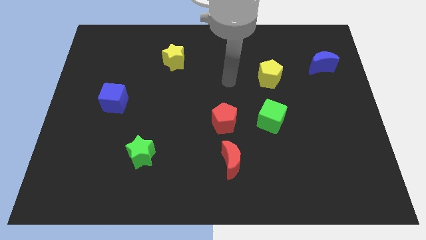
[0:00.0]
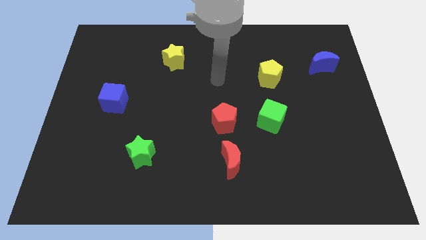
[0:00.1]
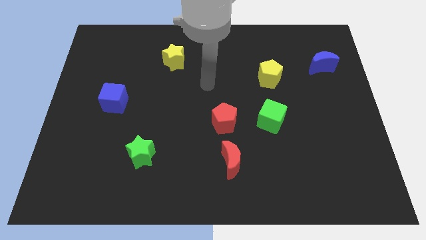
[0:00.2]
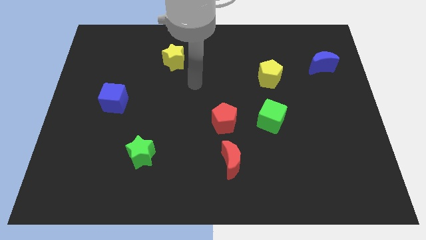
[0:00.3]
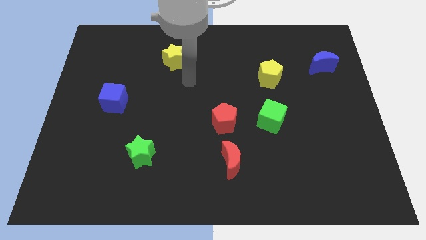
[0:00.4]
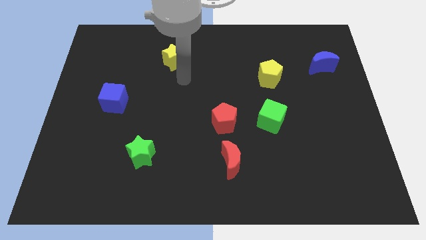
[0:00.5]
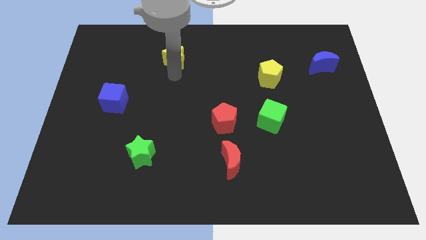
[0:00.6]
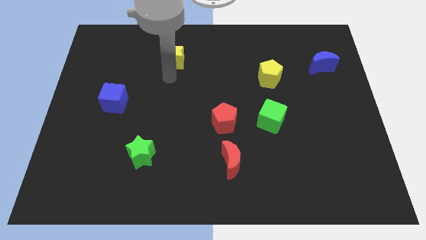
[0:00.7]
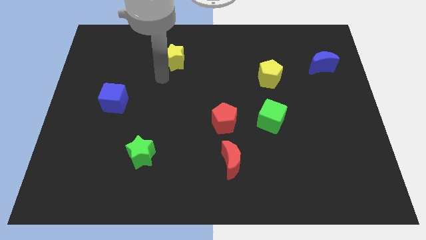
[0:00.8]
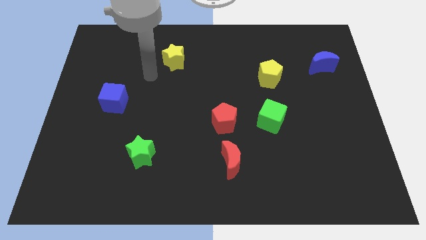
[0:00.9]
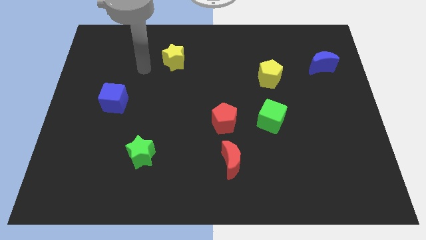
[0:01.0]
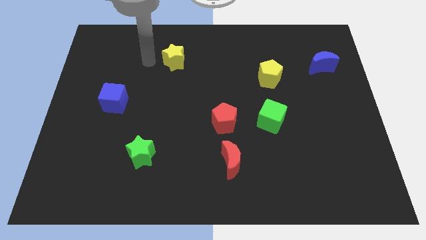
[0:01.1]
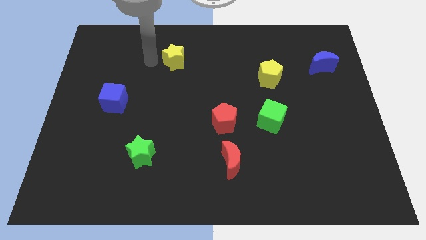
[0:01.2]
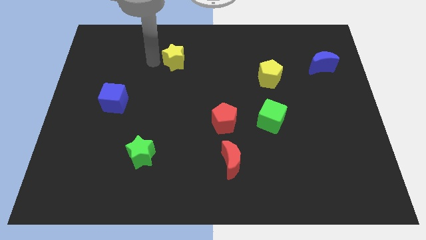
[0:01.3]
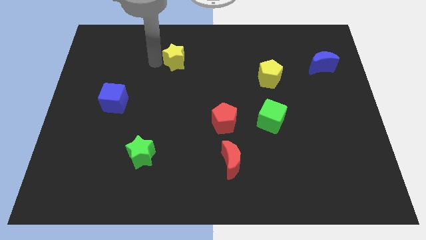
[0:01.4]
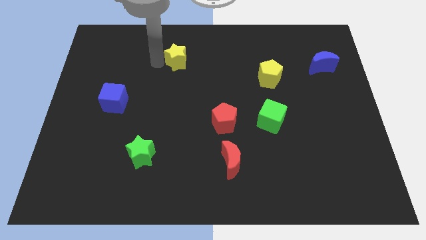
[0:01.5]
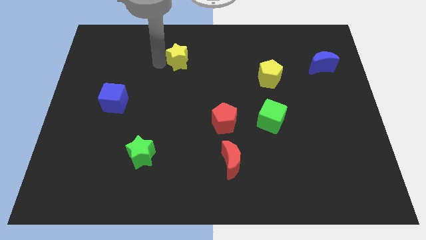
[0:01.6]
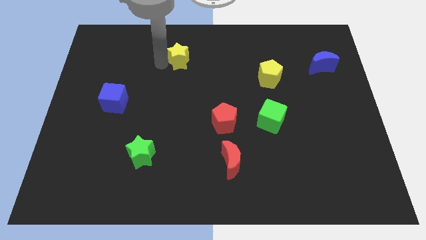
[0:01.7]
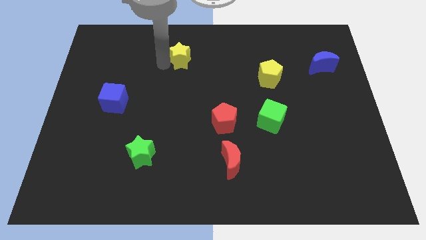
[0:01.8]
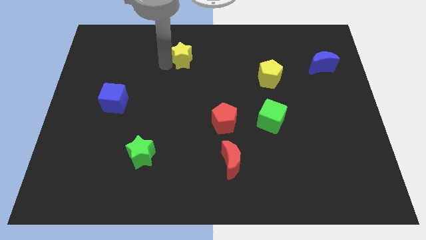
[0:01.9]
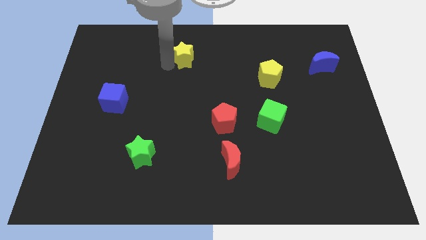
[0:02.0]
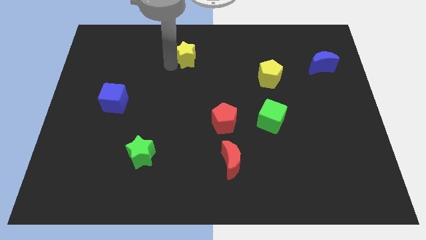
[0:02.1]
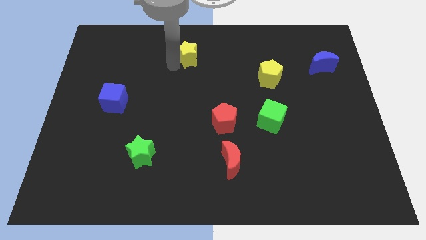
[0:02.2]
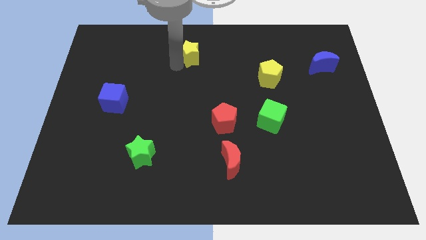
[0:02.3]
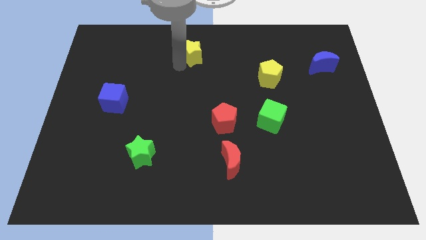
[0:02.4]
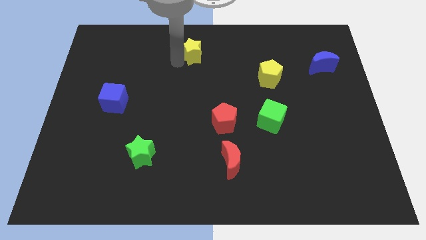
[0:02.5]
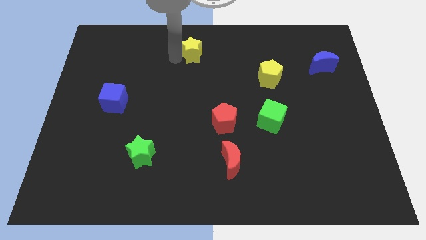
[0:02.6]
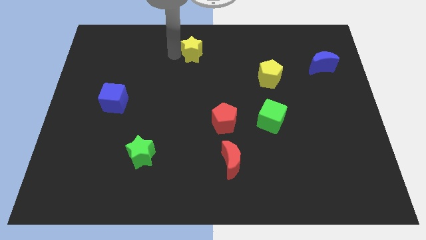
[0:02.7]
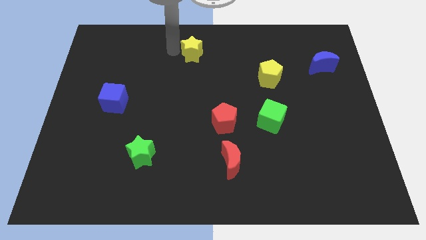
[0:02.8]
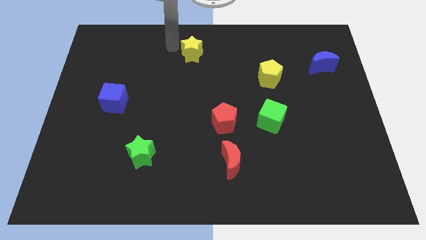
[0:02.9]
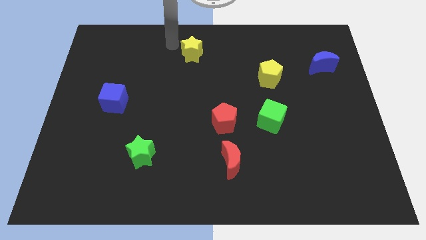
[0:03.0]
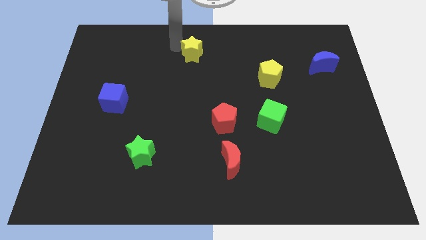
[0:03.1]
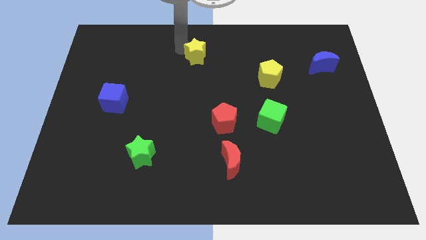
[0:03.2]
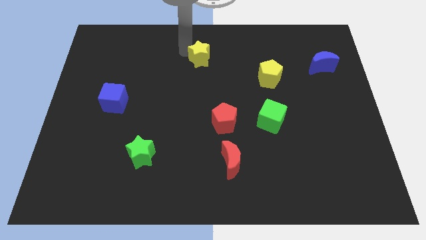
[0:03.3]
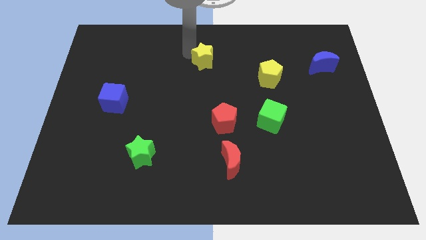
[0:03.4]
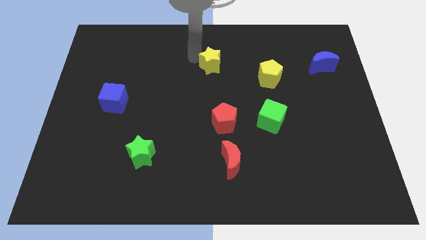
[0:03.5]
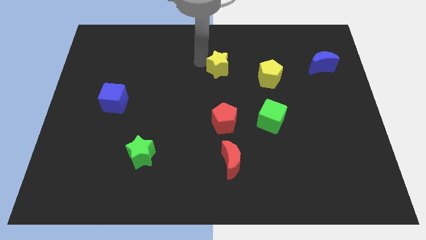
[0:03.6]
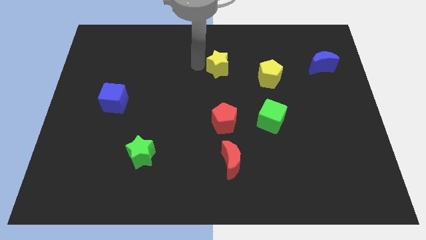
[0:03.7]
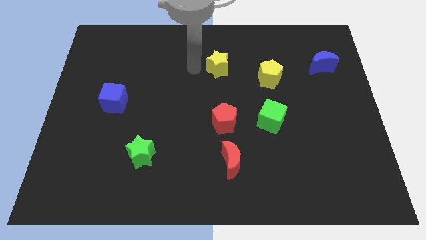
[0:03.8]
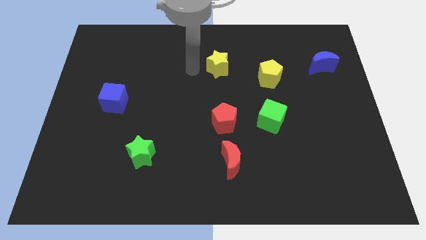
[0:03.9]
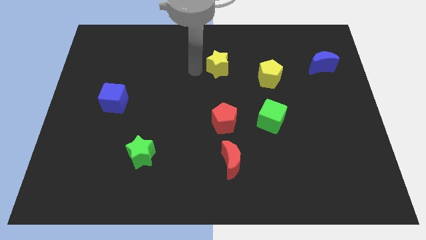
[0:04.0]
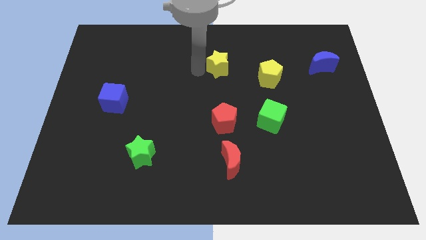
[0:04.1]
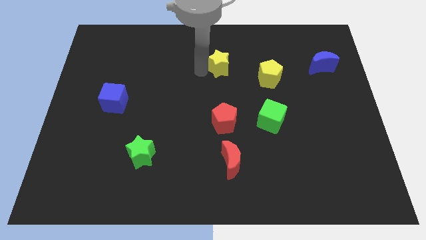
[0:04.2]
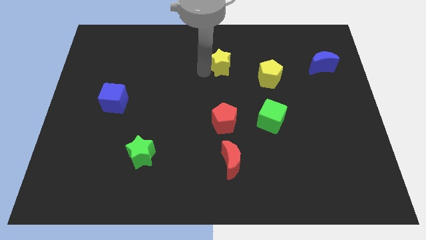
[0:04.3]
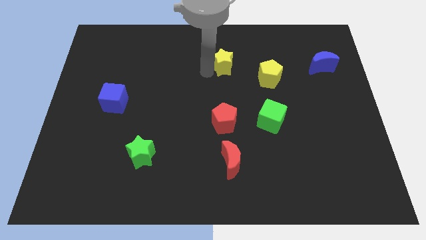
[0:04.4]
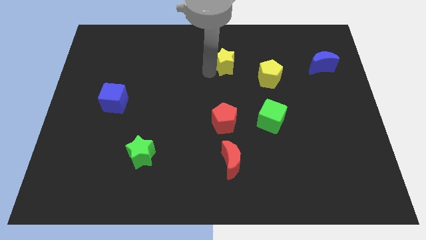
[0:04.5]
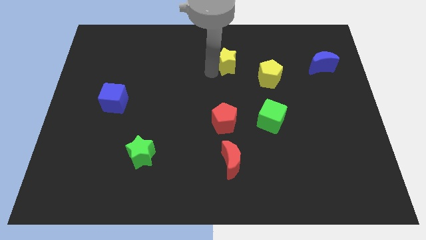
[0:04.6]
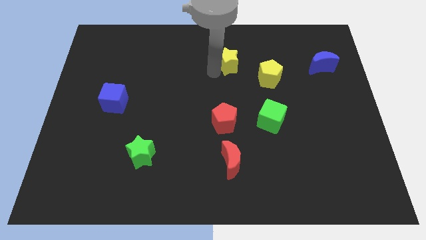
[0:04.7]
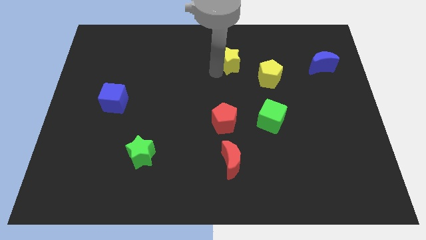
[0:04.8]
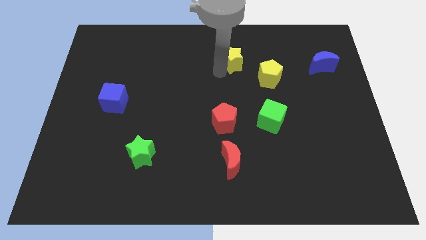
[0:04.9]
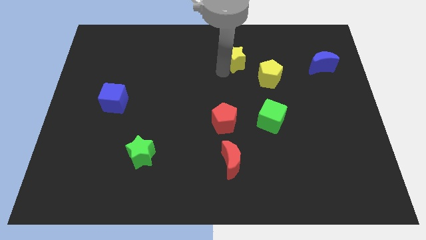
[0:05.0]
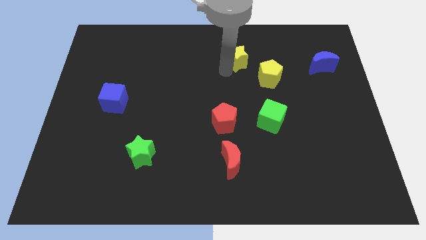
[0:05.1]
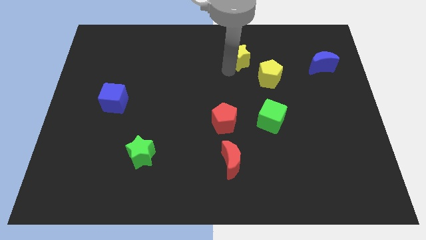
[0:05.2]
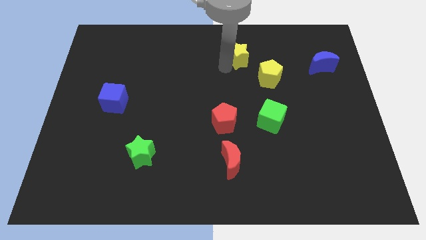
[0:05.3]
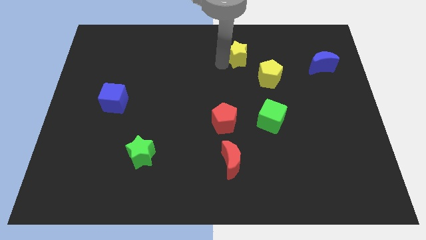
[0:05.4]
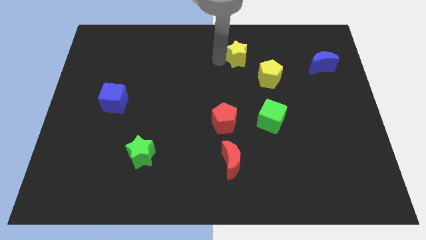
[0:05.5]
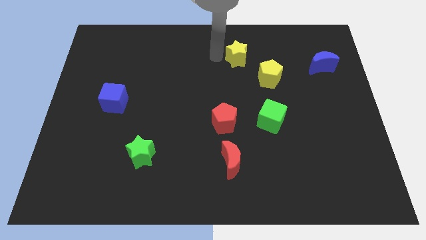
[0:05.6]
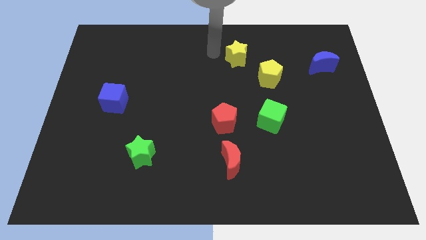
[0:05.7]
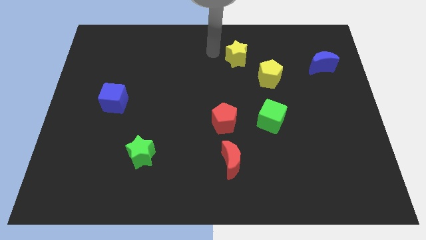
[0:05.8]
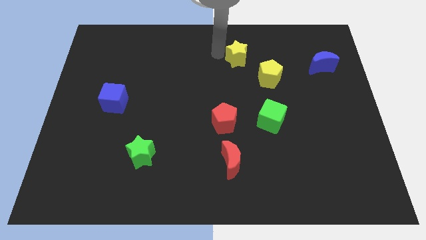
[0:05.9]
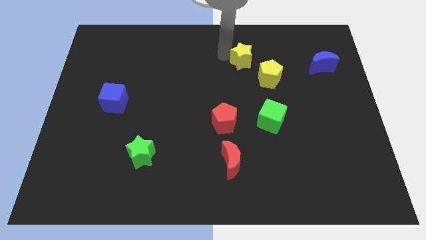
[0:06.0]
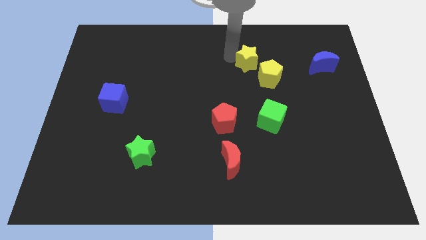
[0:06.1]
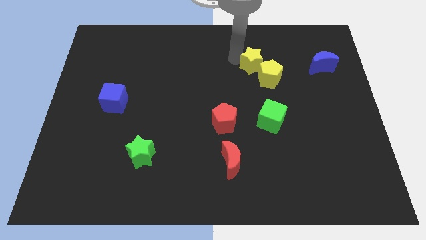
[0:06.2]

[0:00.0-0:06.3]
move the yellow star to the right

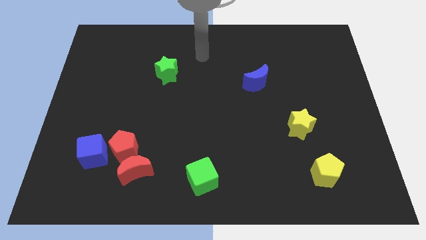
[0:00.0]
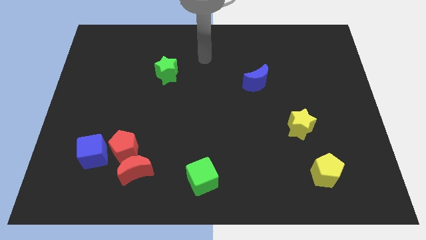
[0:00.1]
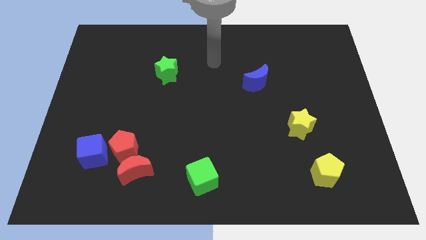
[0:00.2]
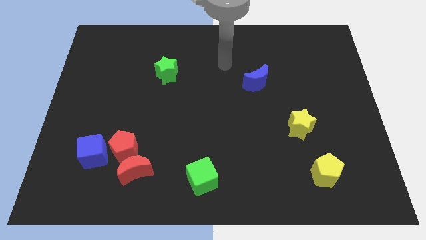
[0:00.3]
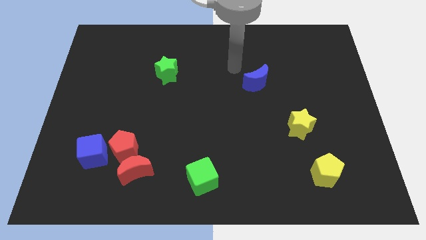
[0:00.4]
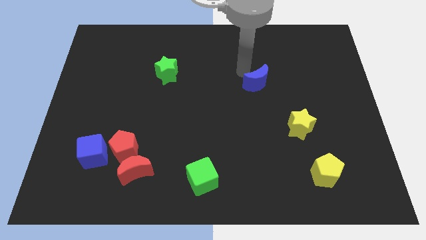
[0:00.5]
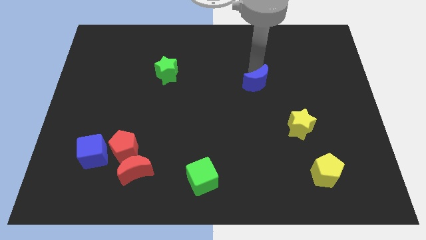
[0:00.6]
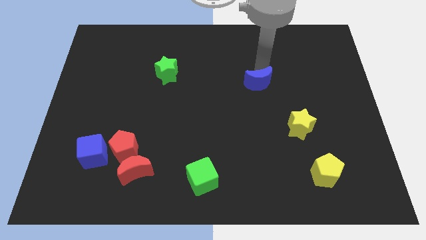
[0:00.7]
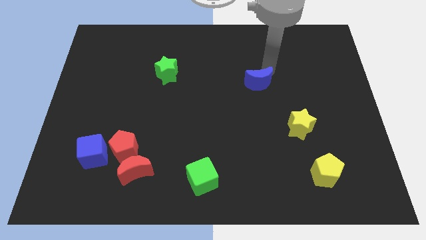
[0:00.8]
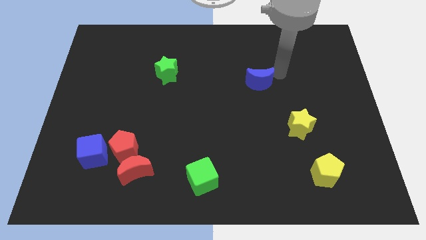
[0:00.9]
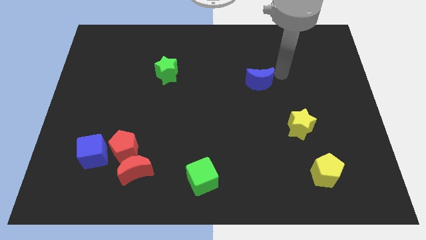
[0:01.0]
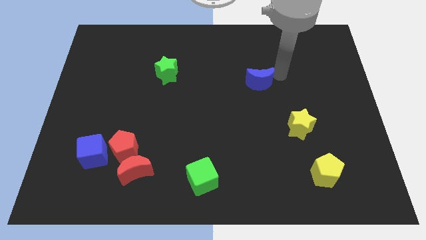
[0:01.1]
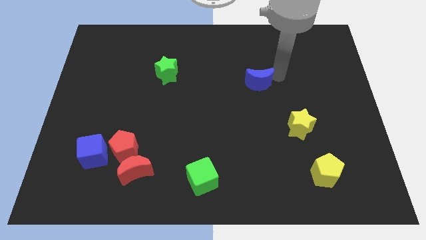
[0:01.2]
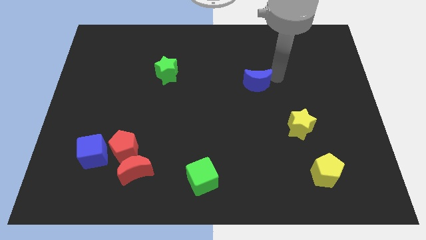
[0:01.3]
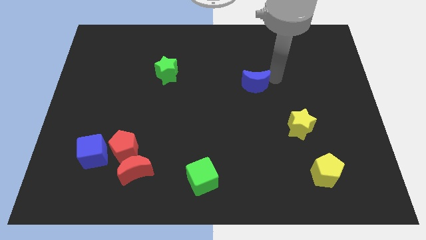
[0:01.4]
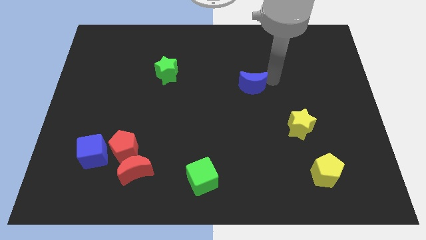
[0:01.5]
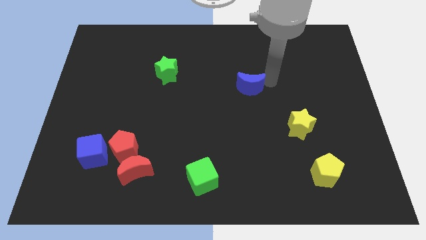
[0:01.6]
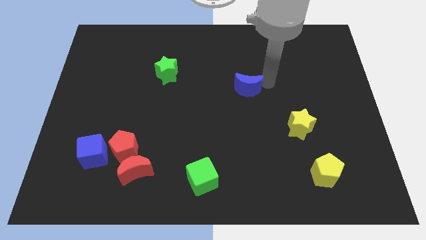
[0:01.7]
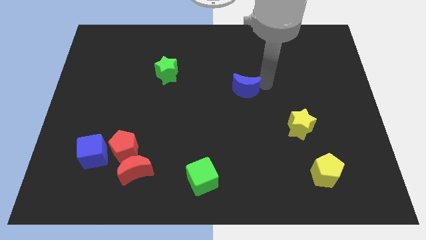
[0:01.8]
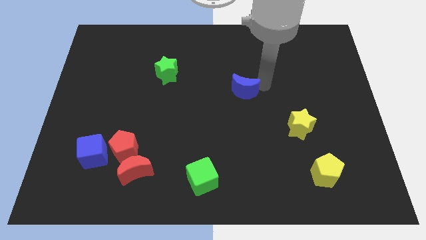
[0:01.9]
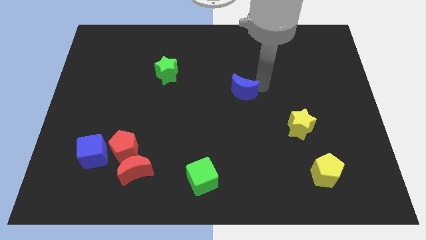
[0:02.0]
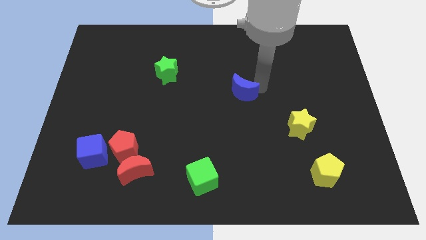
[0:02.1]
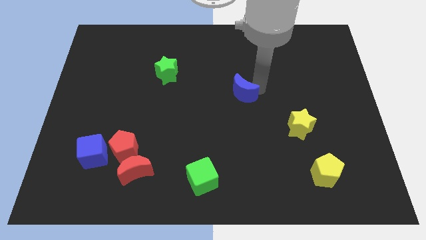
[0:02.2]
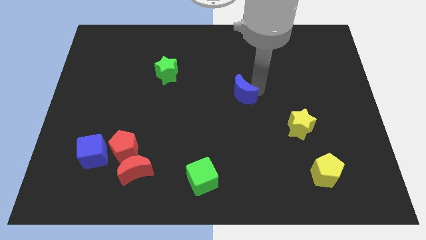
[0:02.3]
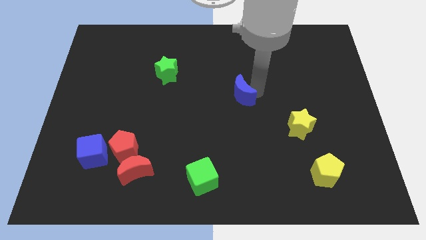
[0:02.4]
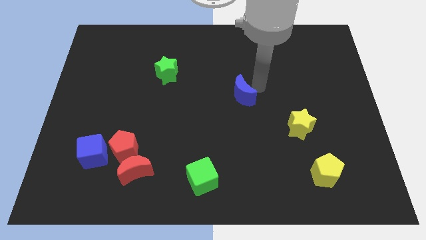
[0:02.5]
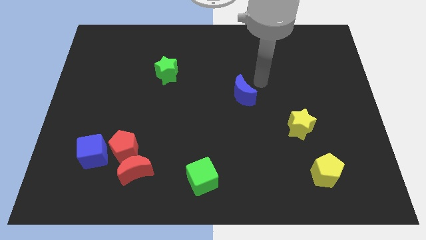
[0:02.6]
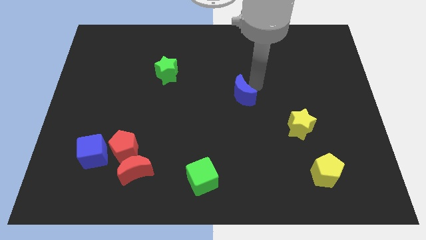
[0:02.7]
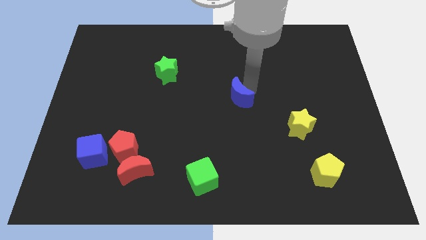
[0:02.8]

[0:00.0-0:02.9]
slightly slide the blue moon diagonally down and left
